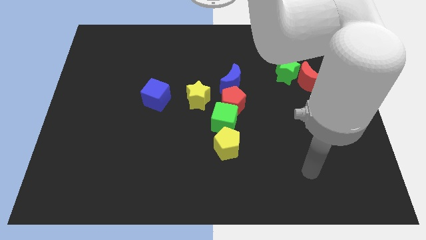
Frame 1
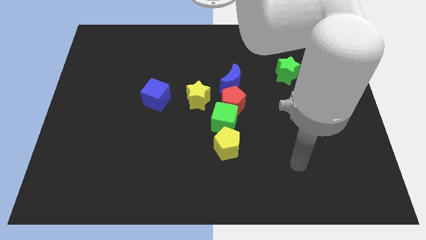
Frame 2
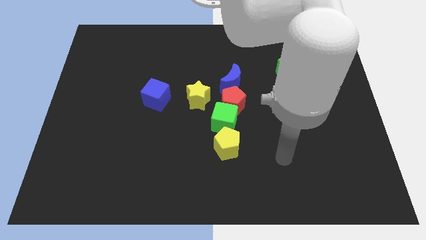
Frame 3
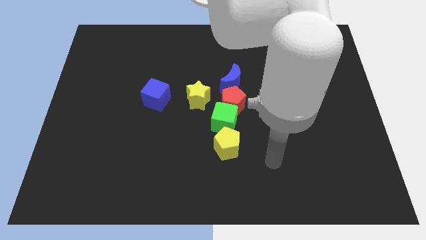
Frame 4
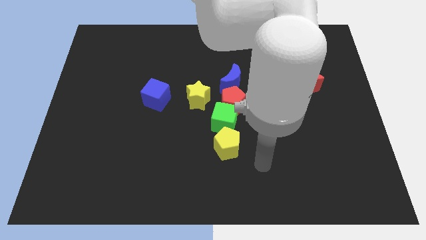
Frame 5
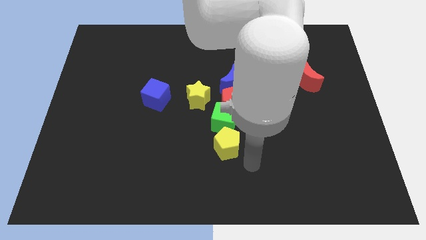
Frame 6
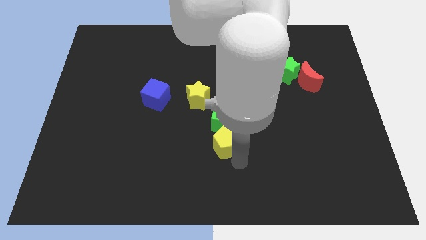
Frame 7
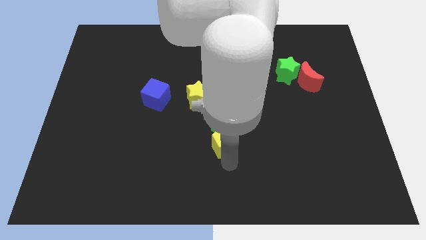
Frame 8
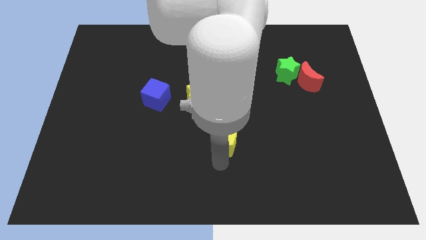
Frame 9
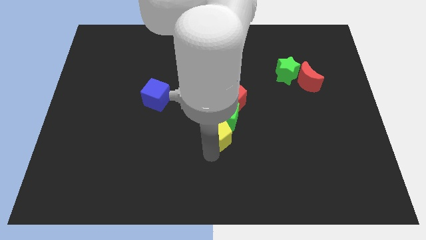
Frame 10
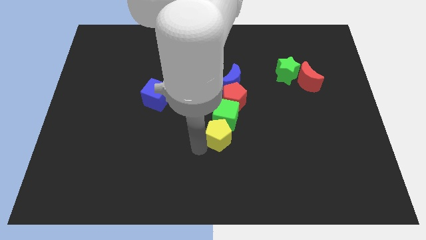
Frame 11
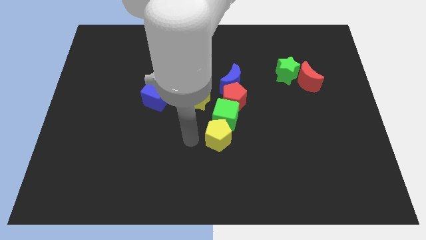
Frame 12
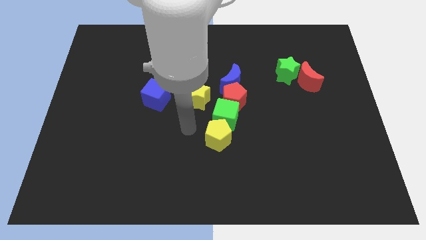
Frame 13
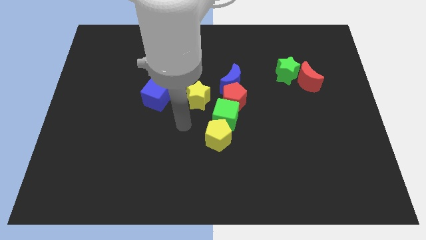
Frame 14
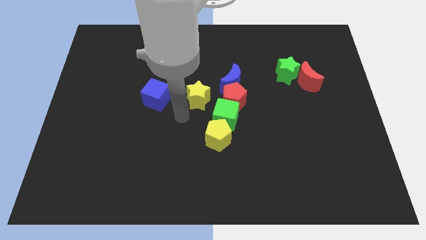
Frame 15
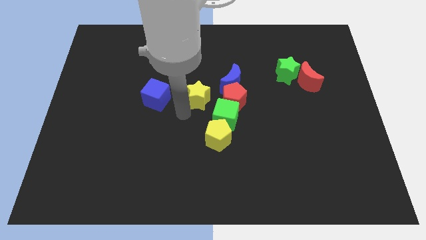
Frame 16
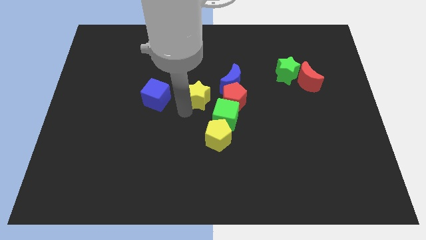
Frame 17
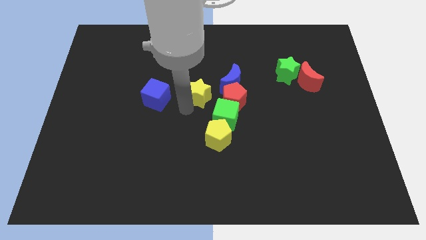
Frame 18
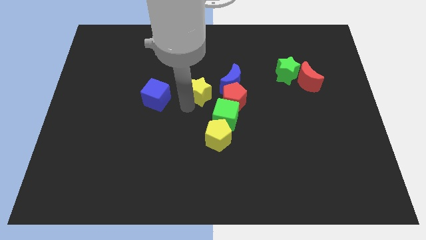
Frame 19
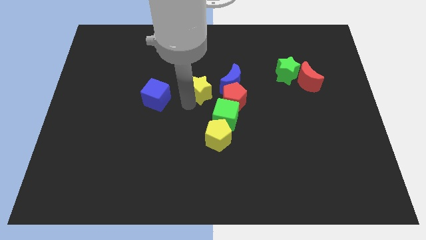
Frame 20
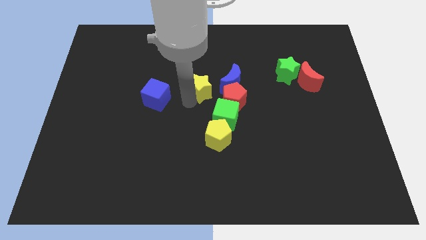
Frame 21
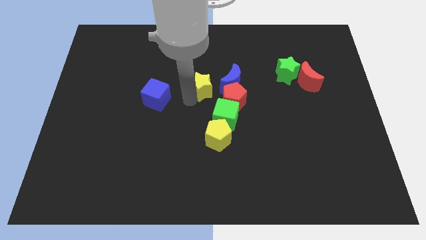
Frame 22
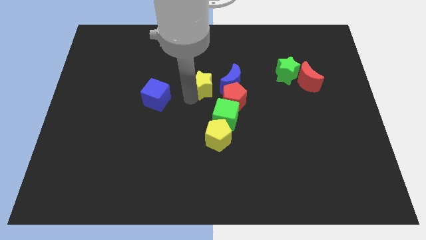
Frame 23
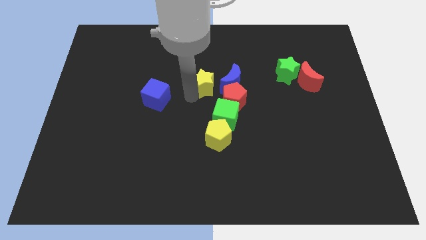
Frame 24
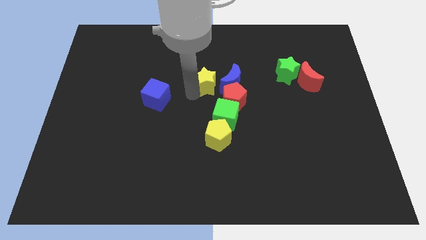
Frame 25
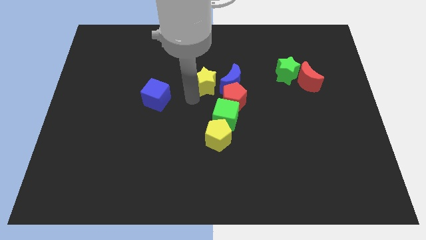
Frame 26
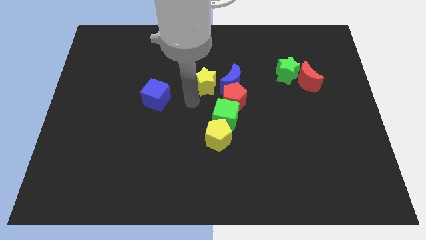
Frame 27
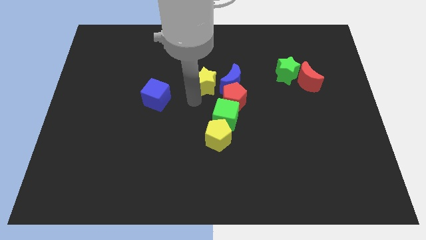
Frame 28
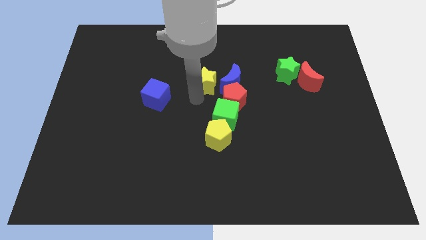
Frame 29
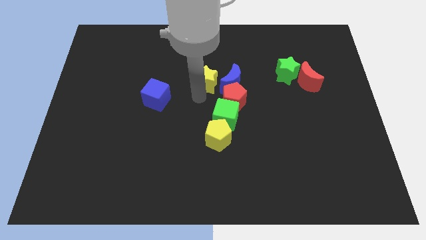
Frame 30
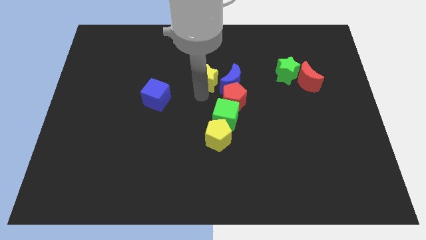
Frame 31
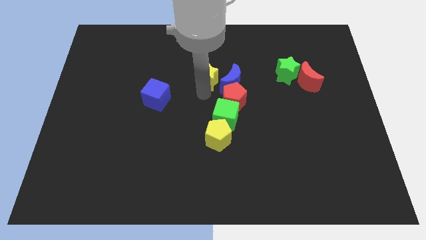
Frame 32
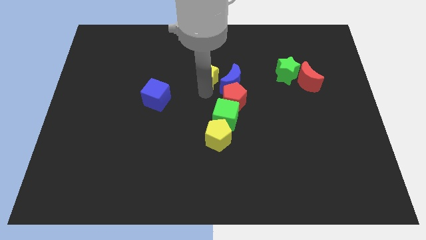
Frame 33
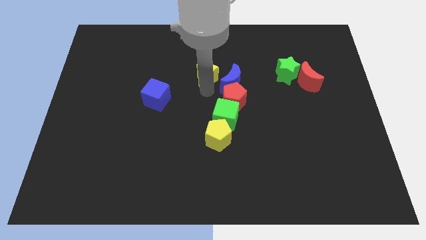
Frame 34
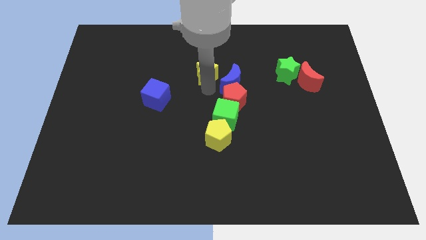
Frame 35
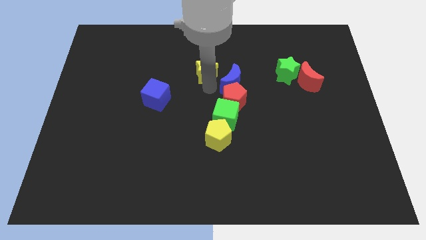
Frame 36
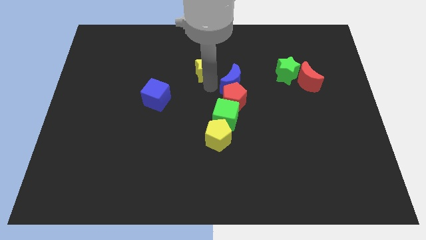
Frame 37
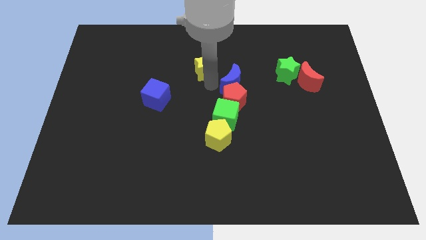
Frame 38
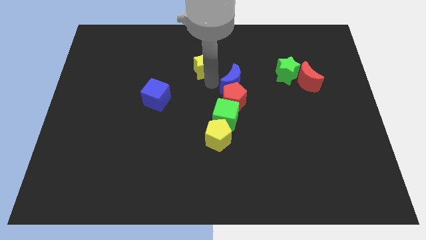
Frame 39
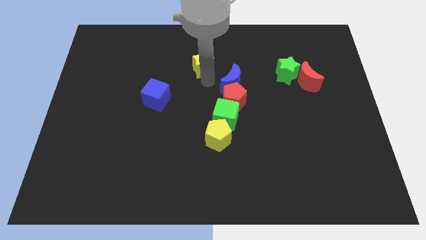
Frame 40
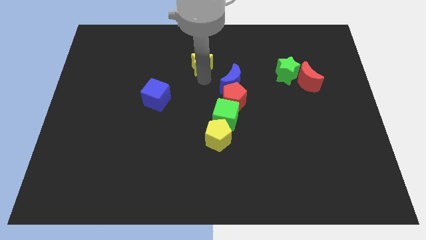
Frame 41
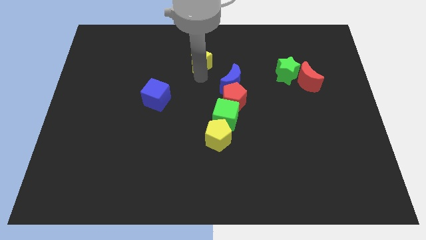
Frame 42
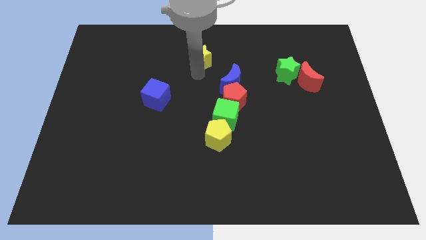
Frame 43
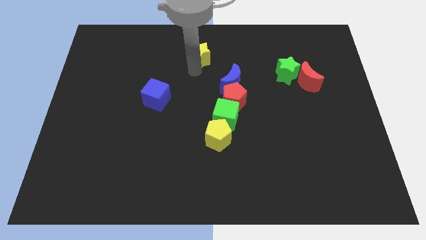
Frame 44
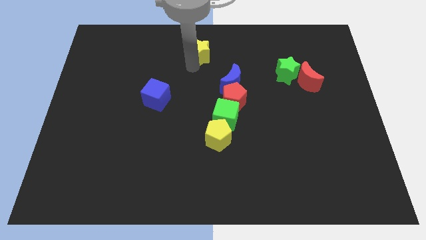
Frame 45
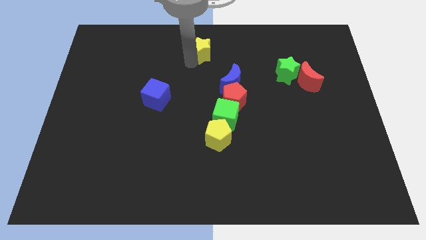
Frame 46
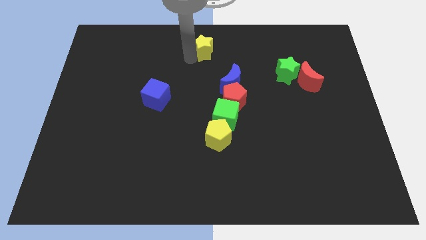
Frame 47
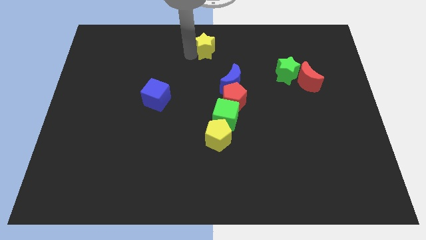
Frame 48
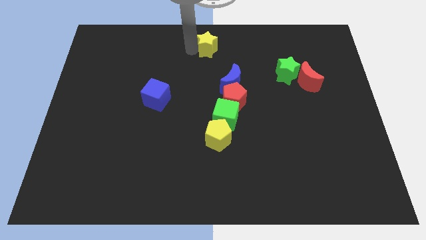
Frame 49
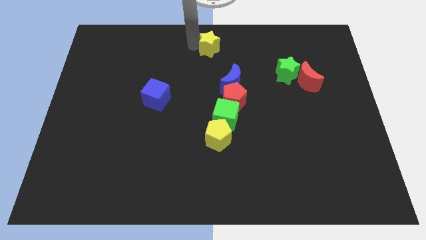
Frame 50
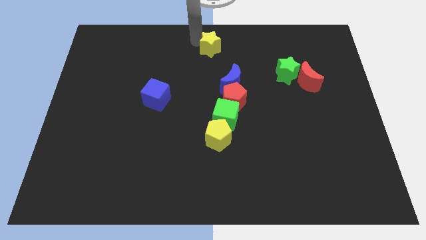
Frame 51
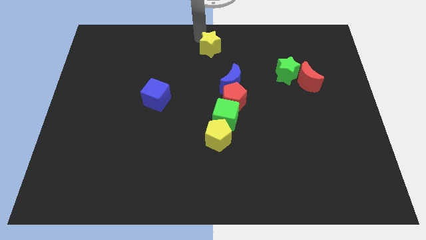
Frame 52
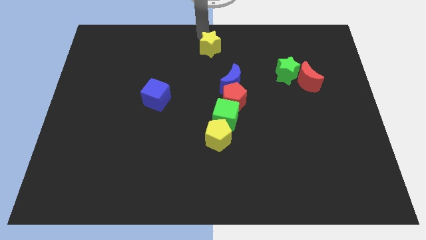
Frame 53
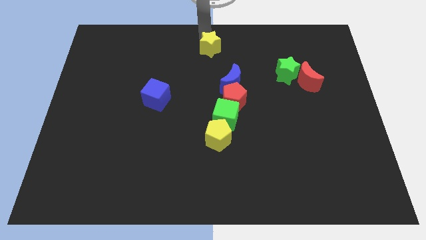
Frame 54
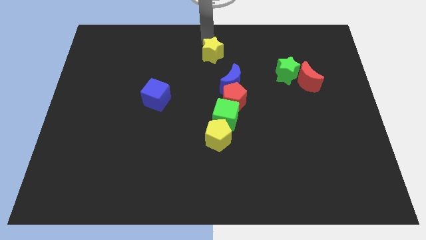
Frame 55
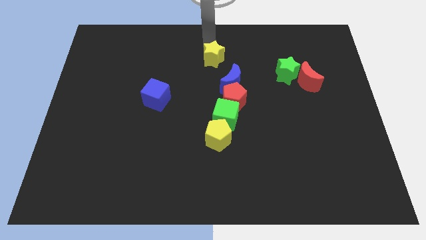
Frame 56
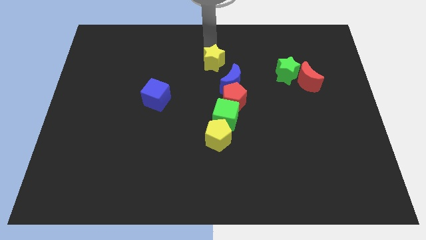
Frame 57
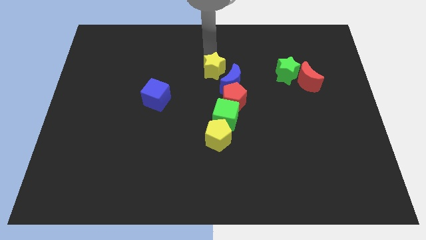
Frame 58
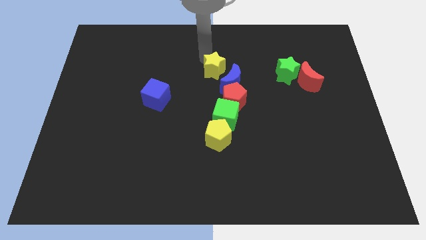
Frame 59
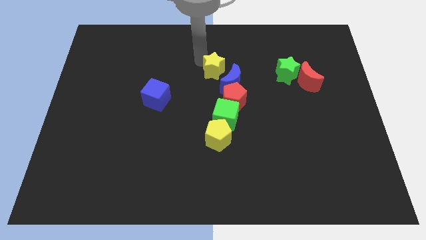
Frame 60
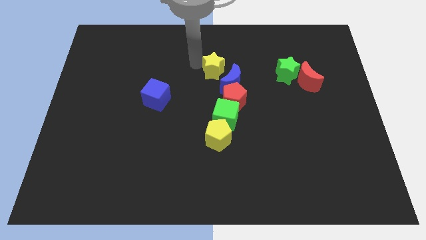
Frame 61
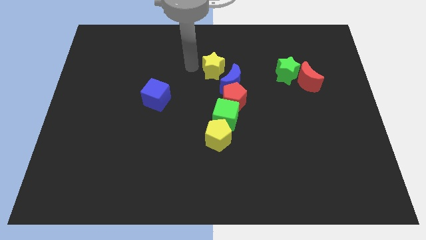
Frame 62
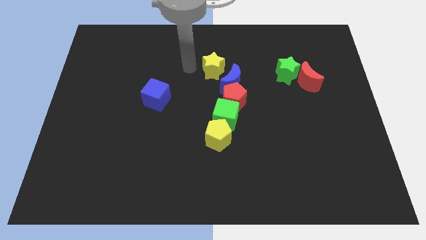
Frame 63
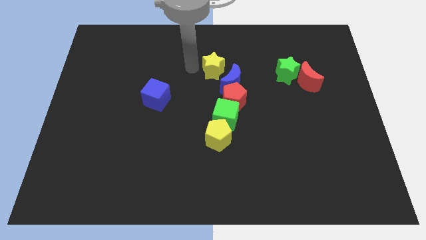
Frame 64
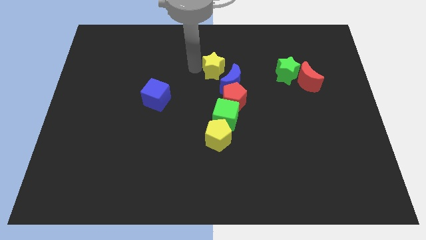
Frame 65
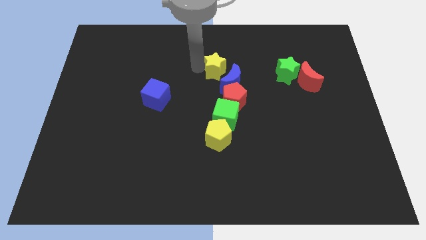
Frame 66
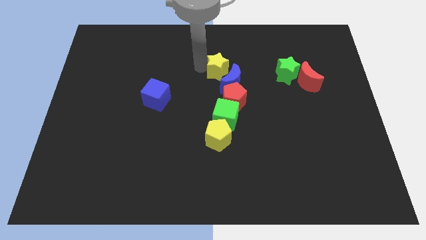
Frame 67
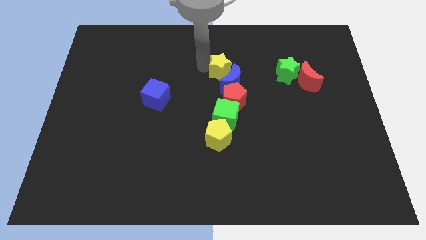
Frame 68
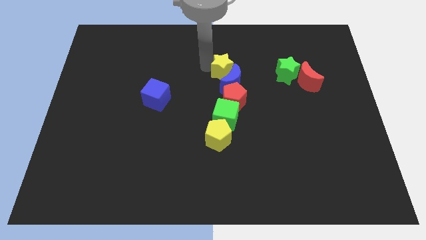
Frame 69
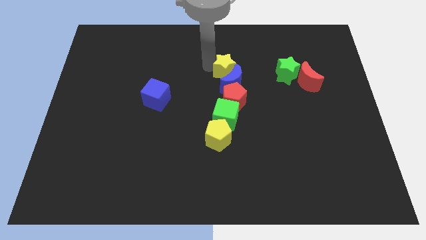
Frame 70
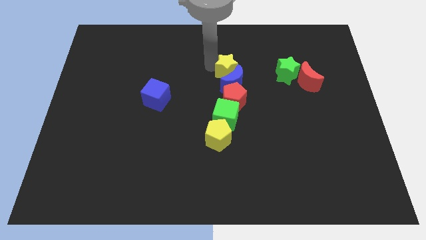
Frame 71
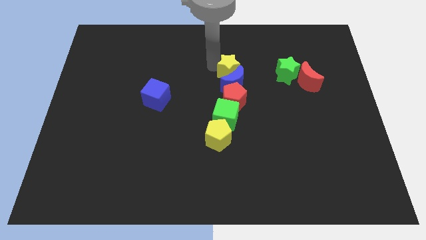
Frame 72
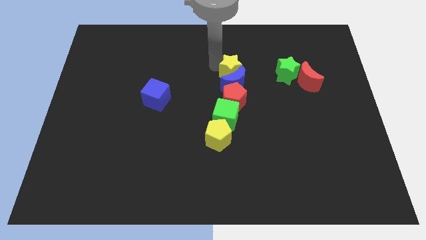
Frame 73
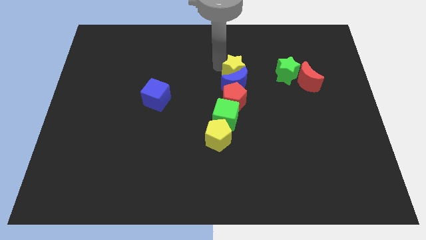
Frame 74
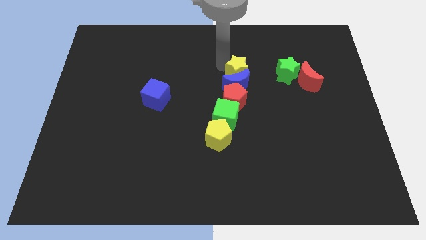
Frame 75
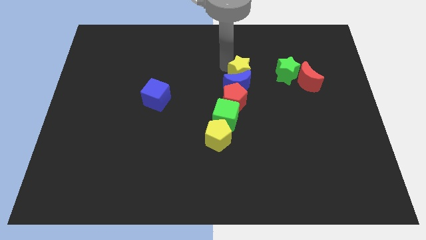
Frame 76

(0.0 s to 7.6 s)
move the yellow star right slightly

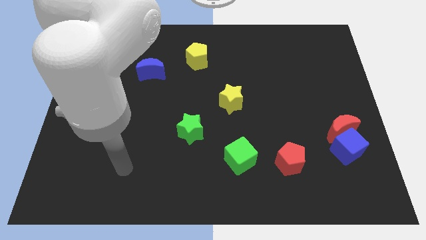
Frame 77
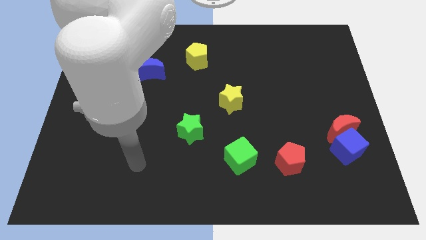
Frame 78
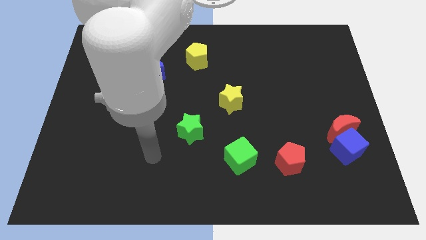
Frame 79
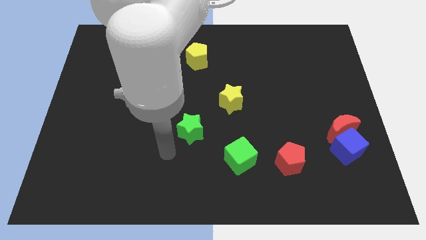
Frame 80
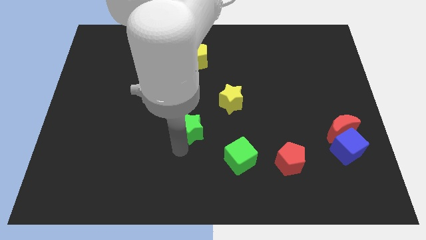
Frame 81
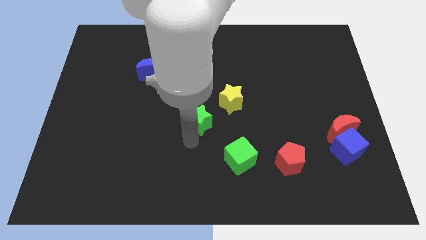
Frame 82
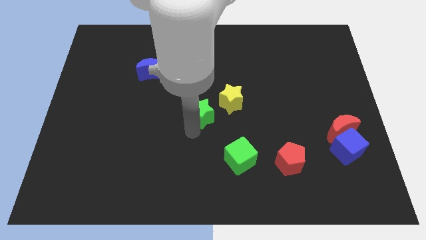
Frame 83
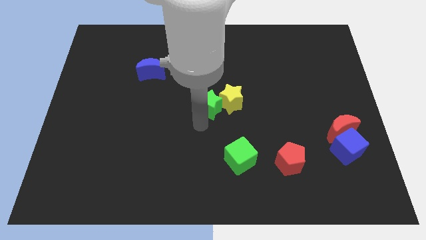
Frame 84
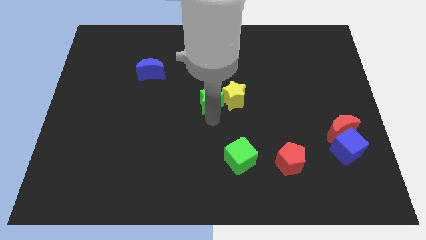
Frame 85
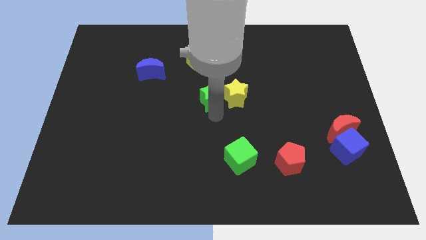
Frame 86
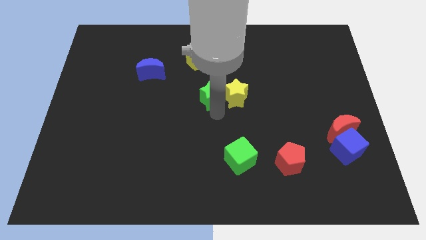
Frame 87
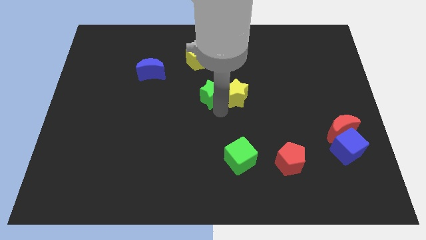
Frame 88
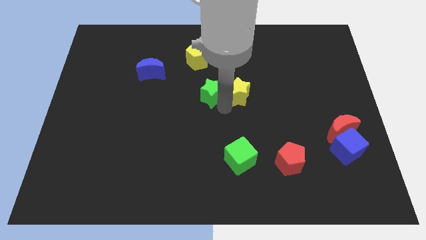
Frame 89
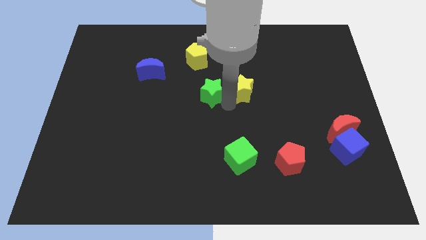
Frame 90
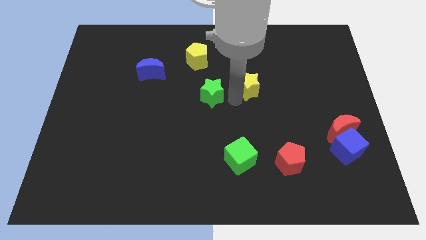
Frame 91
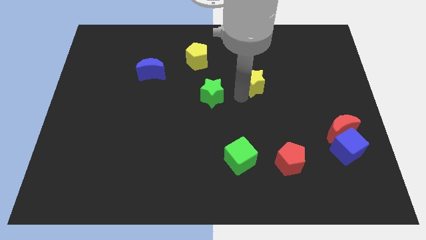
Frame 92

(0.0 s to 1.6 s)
push the yellow star somewhat upwards and right
